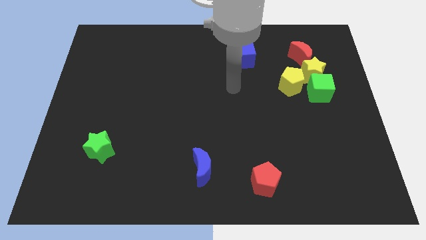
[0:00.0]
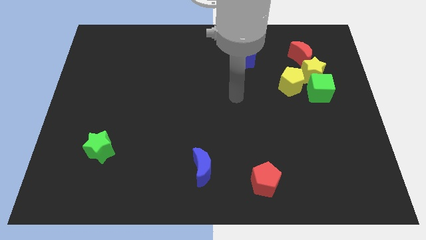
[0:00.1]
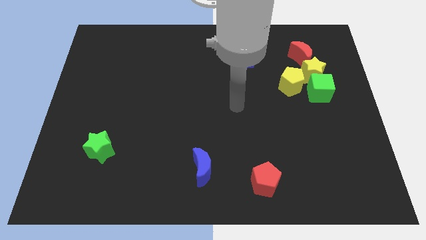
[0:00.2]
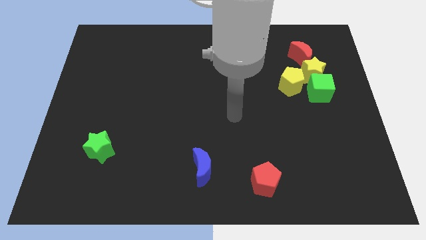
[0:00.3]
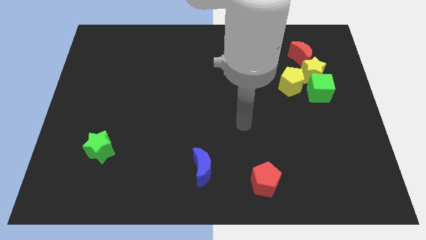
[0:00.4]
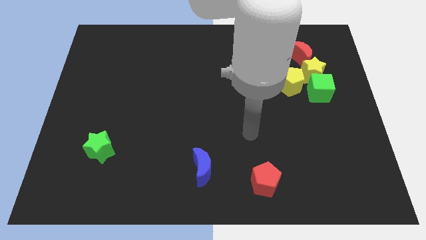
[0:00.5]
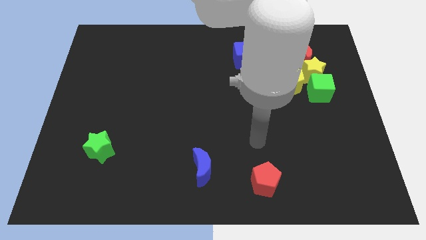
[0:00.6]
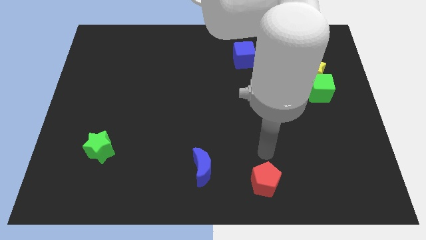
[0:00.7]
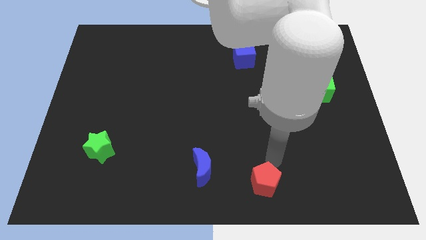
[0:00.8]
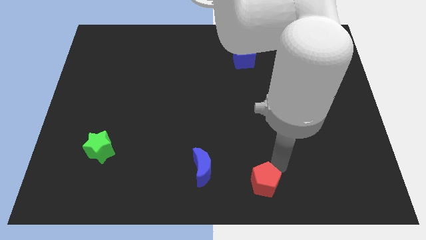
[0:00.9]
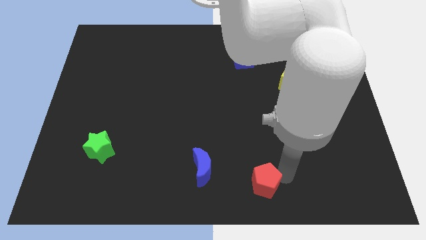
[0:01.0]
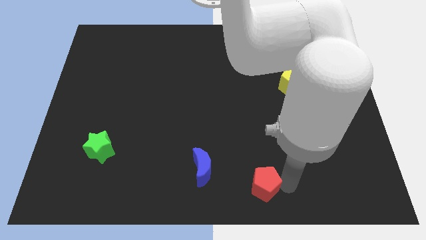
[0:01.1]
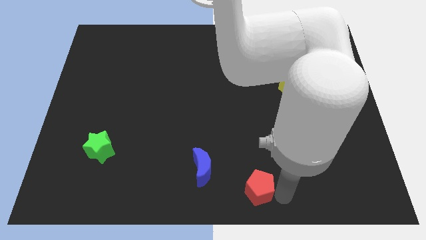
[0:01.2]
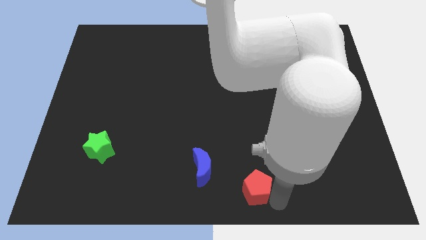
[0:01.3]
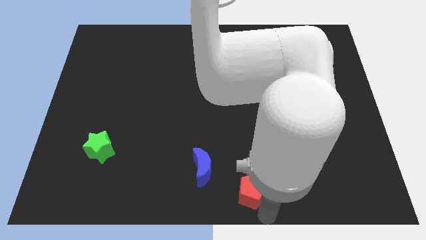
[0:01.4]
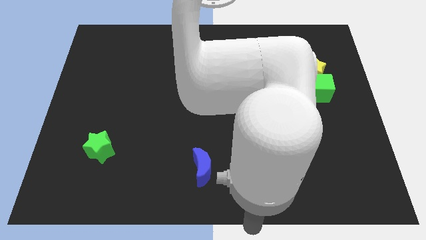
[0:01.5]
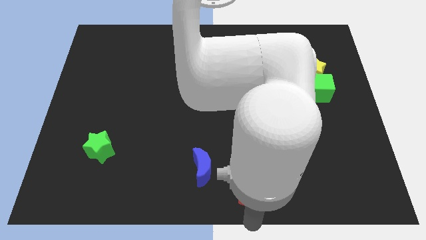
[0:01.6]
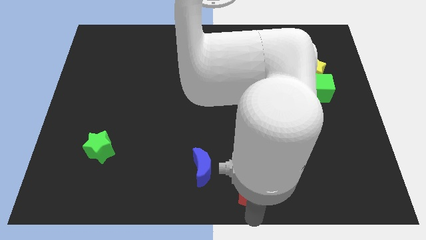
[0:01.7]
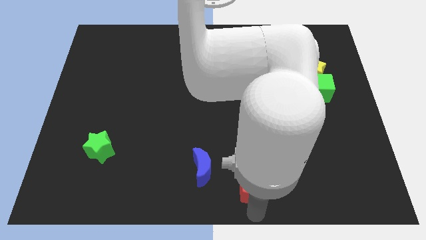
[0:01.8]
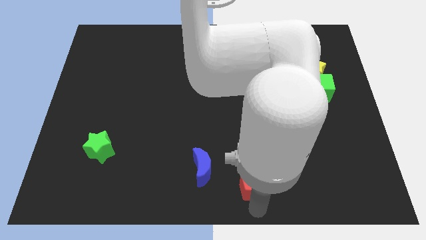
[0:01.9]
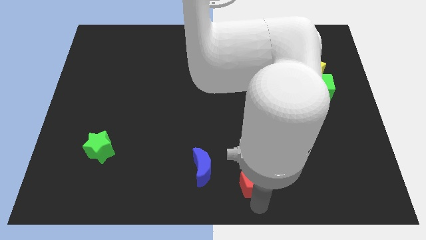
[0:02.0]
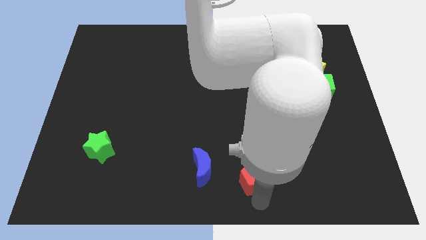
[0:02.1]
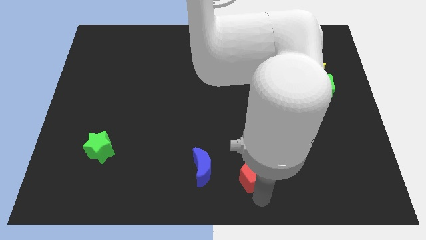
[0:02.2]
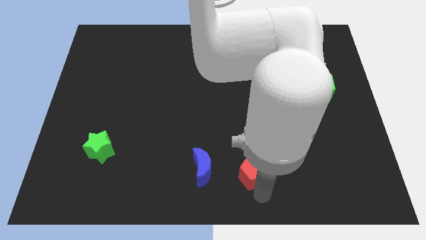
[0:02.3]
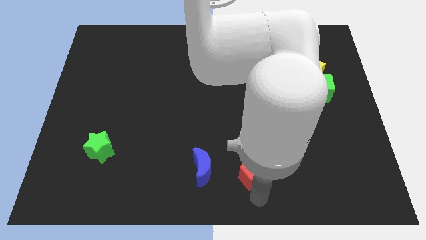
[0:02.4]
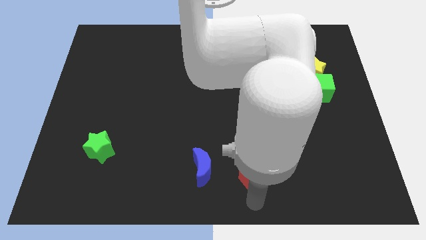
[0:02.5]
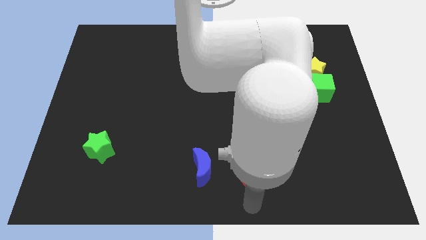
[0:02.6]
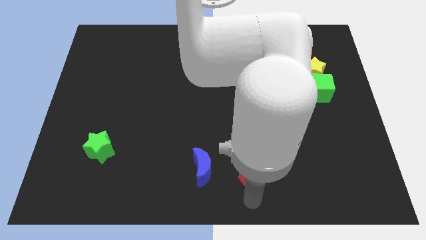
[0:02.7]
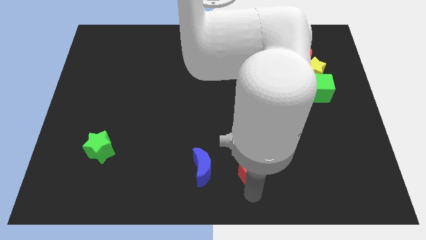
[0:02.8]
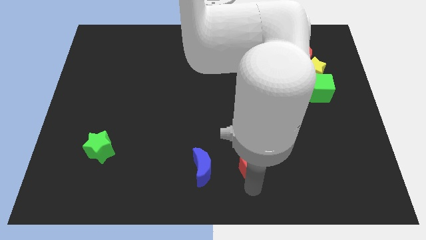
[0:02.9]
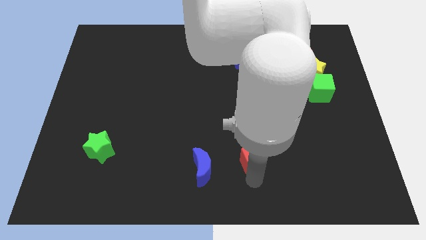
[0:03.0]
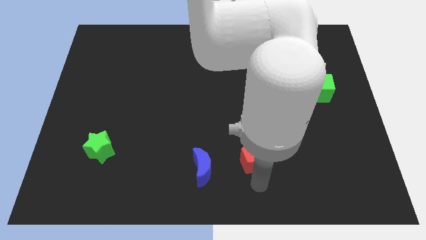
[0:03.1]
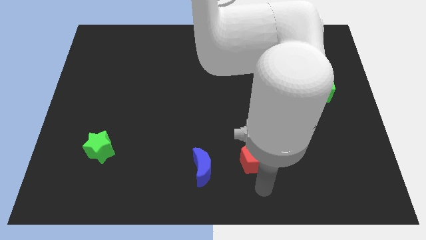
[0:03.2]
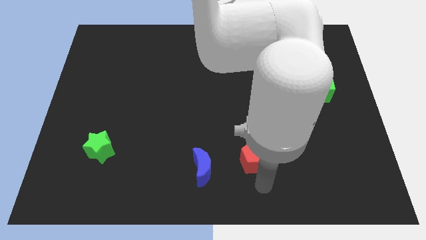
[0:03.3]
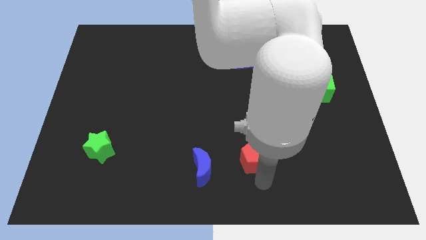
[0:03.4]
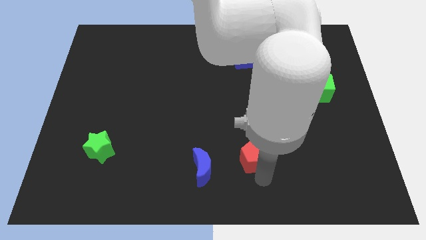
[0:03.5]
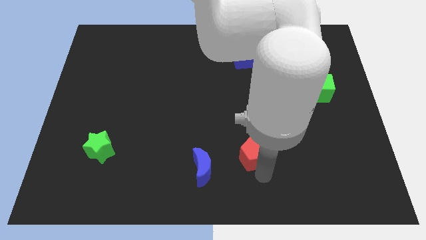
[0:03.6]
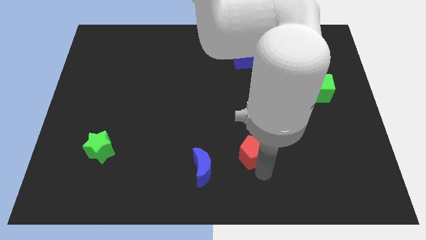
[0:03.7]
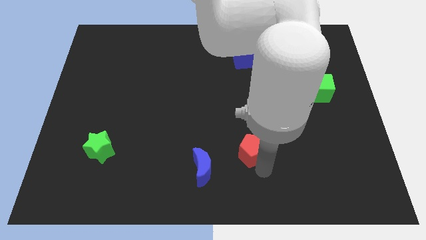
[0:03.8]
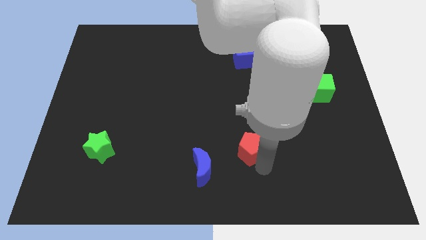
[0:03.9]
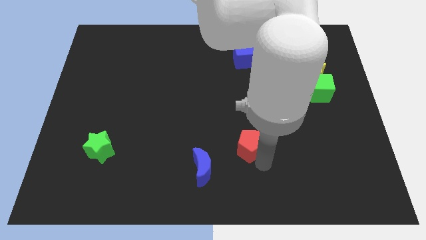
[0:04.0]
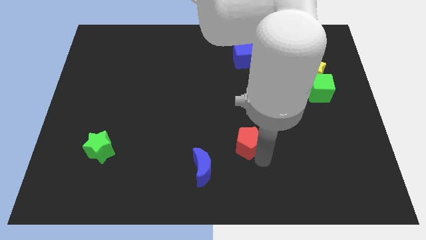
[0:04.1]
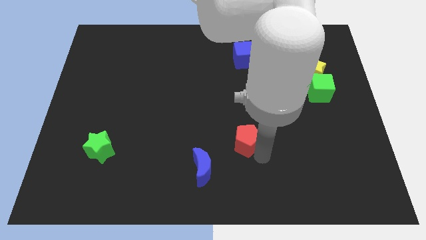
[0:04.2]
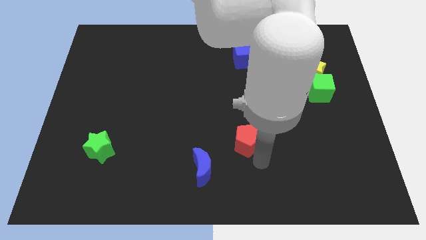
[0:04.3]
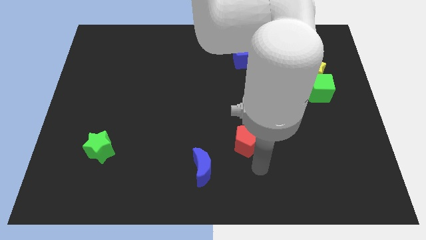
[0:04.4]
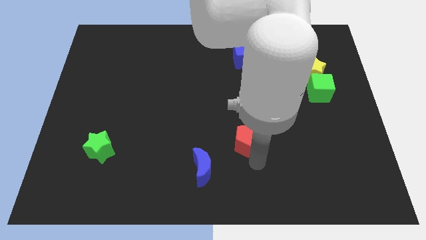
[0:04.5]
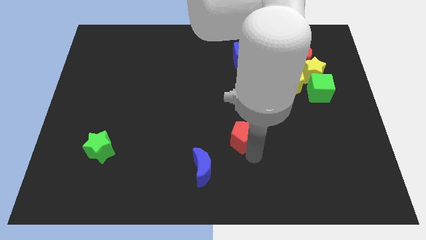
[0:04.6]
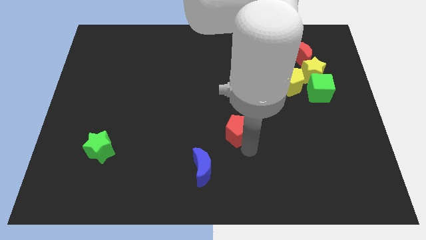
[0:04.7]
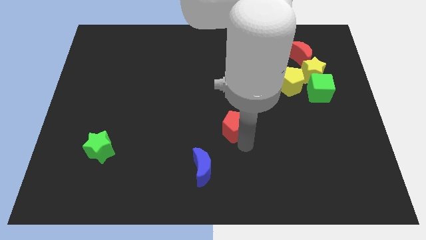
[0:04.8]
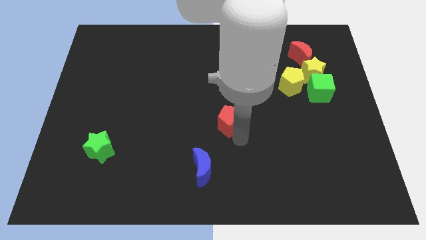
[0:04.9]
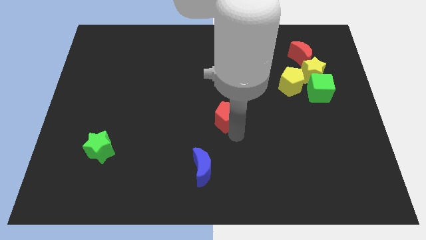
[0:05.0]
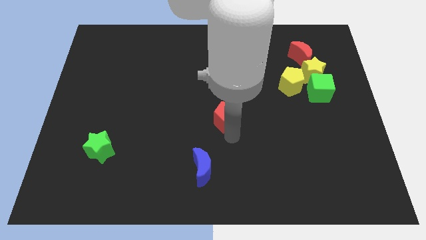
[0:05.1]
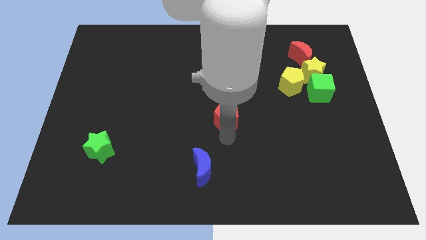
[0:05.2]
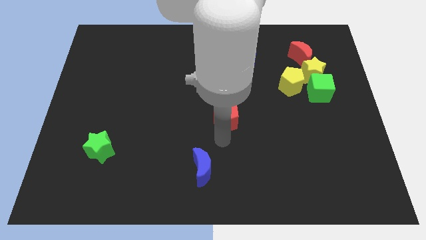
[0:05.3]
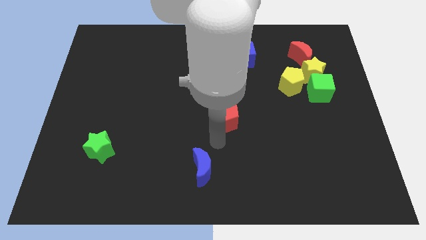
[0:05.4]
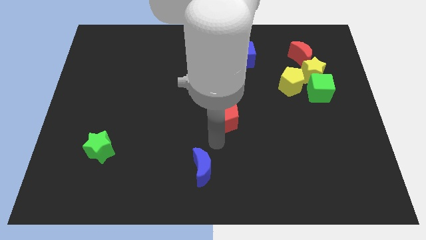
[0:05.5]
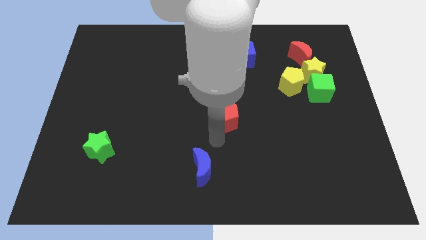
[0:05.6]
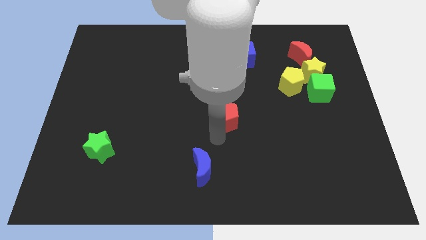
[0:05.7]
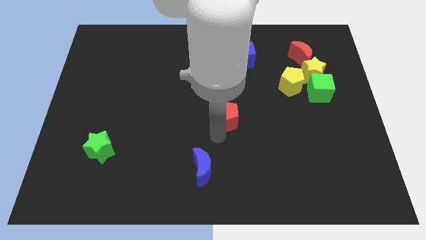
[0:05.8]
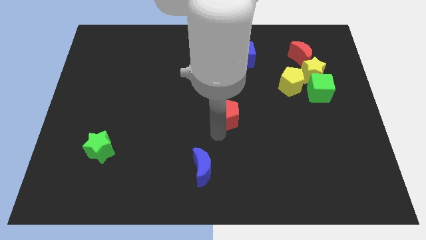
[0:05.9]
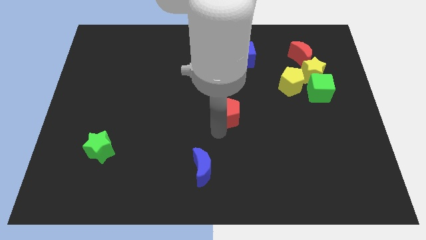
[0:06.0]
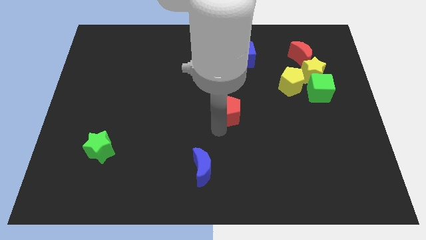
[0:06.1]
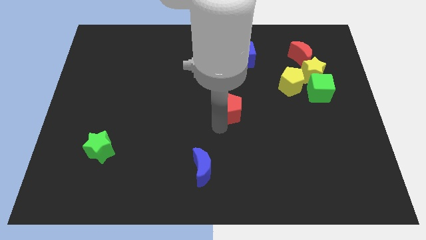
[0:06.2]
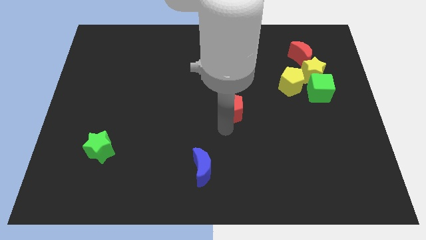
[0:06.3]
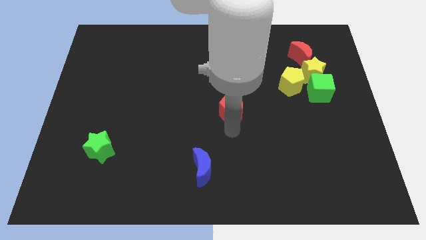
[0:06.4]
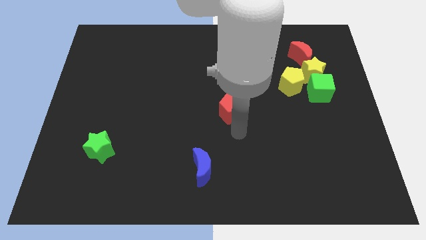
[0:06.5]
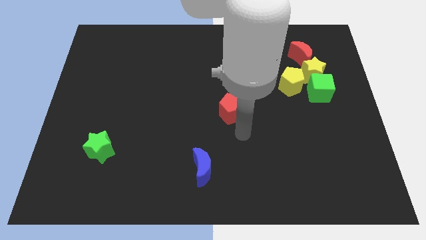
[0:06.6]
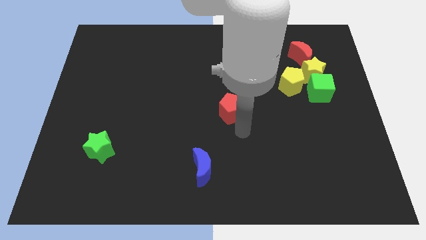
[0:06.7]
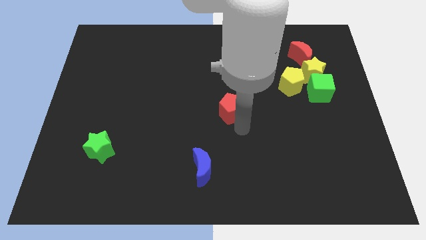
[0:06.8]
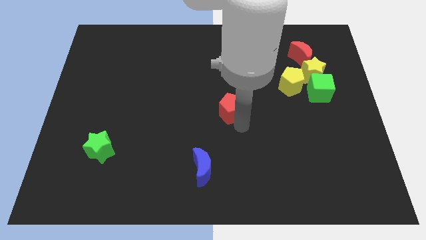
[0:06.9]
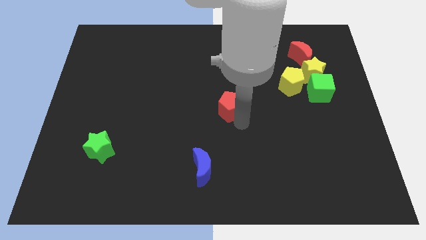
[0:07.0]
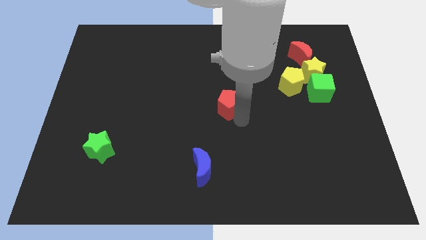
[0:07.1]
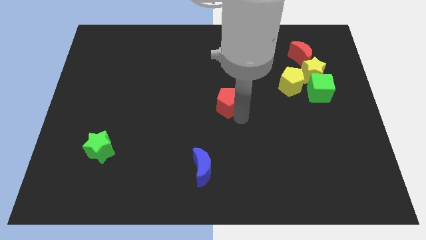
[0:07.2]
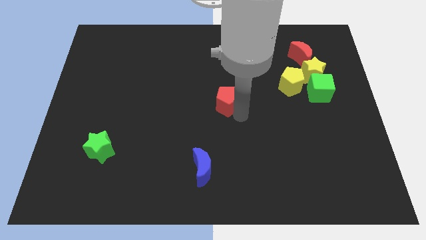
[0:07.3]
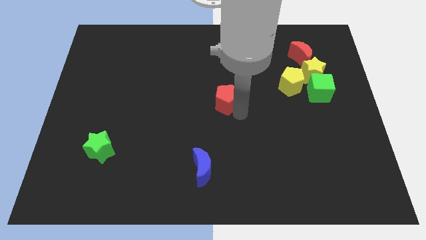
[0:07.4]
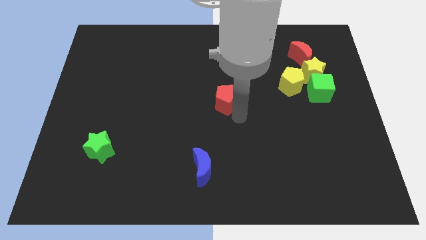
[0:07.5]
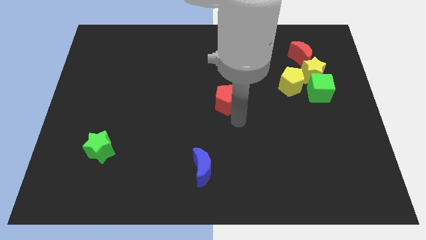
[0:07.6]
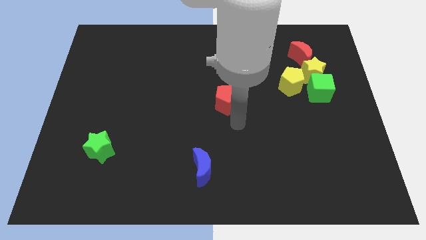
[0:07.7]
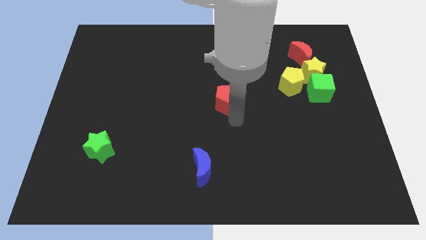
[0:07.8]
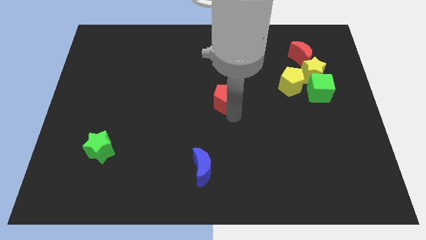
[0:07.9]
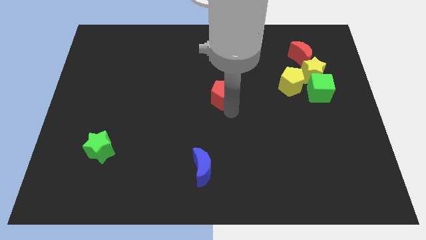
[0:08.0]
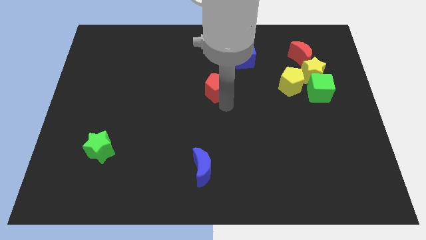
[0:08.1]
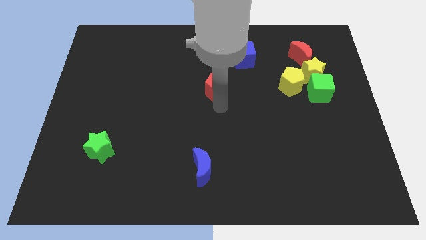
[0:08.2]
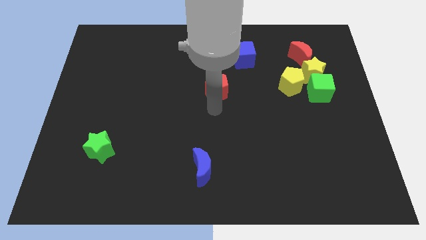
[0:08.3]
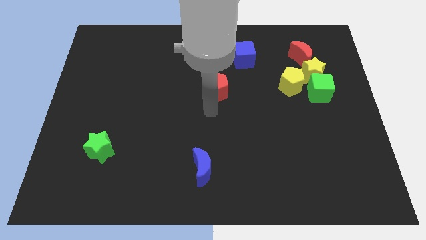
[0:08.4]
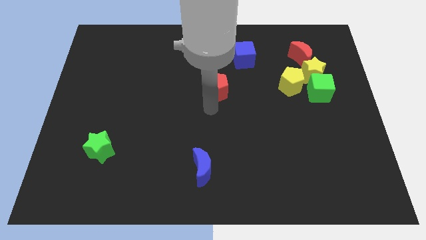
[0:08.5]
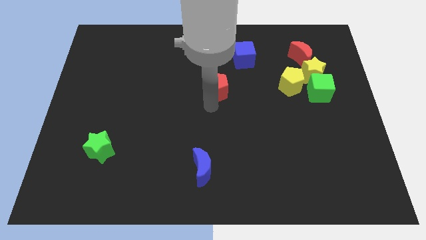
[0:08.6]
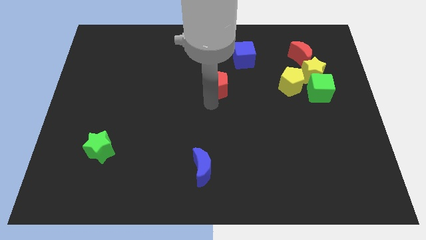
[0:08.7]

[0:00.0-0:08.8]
push the red pentagon to the bottom left of the blue cube
